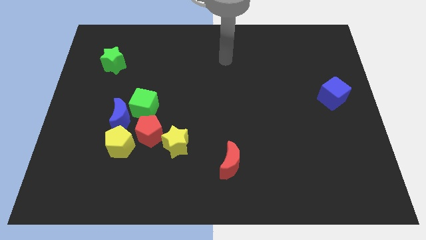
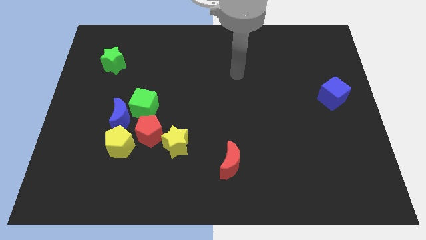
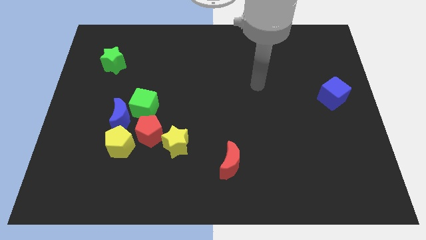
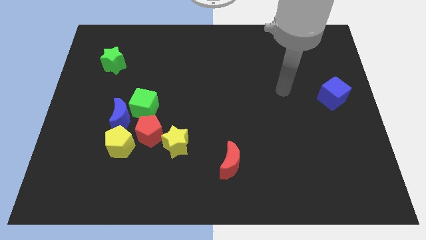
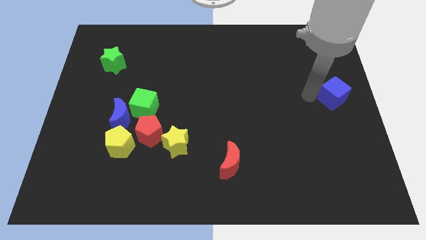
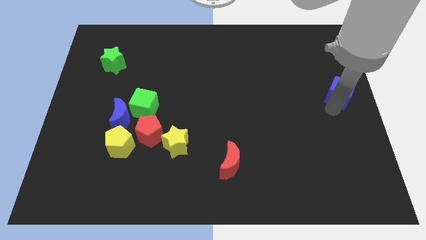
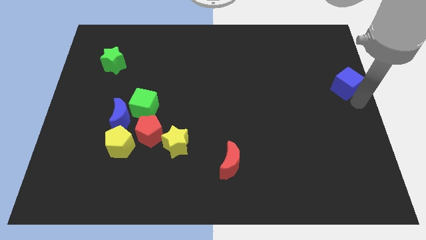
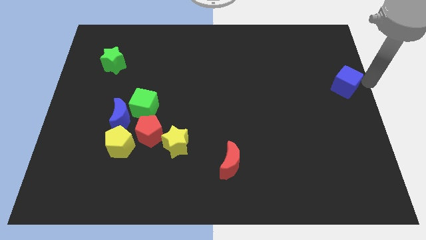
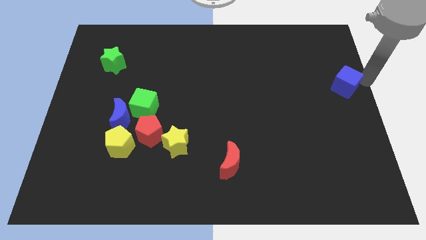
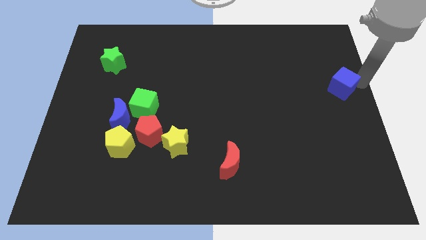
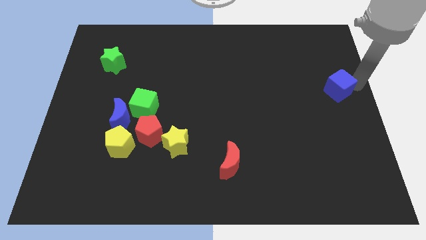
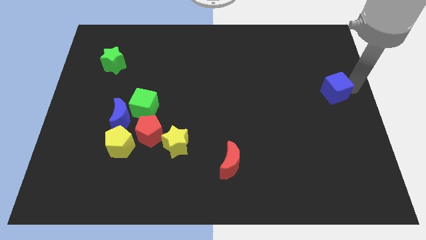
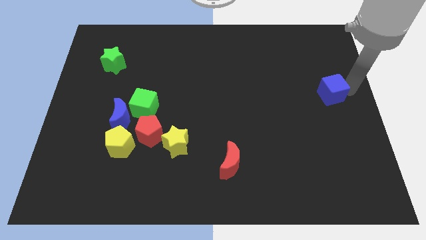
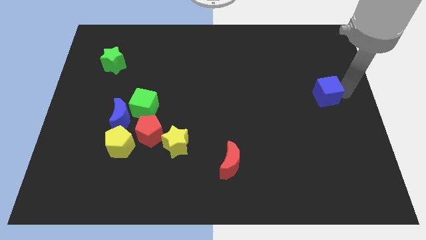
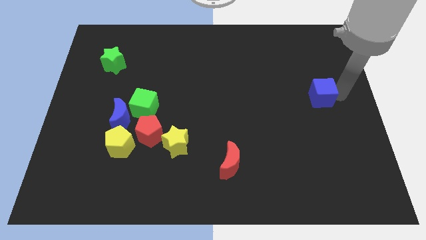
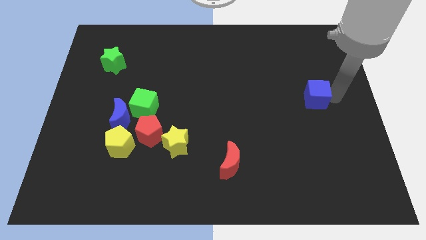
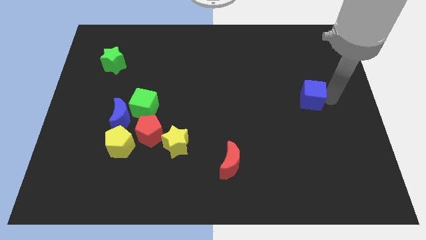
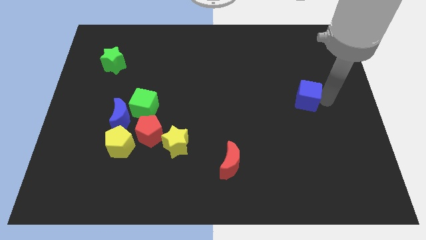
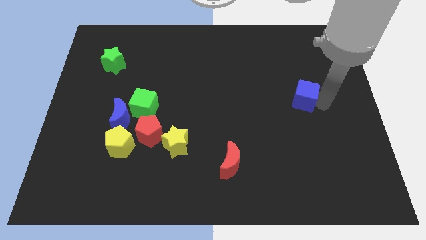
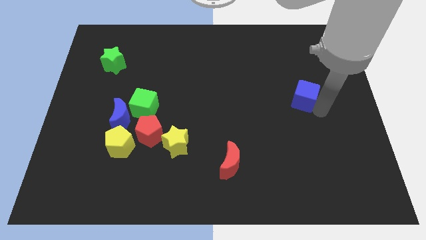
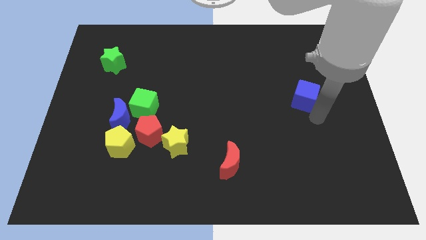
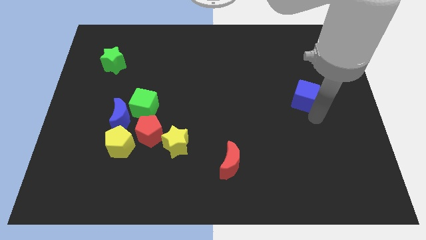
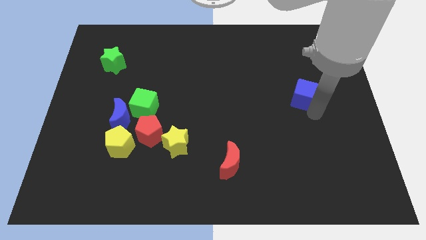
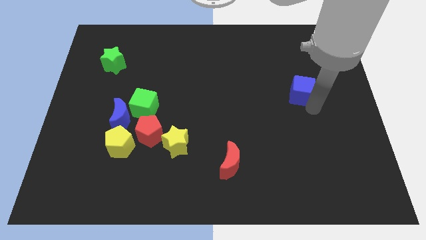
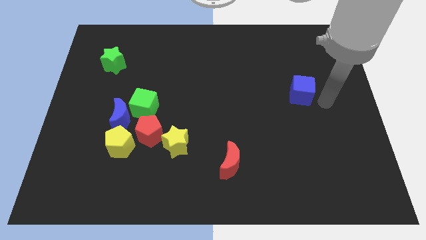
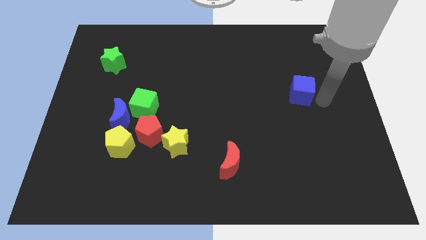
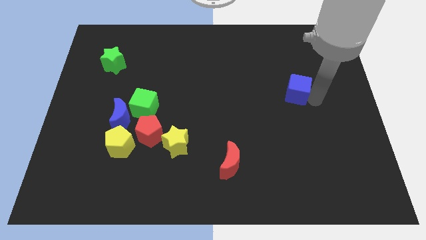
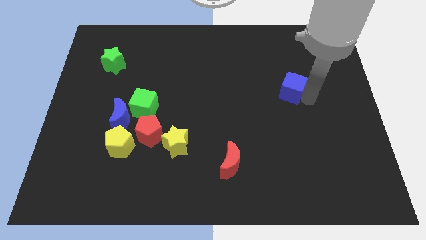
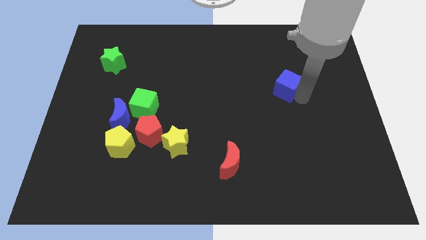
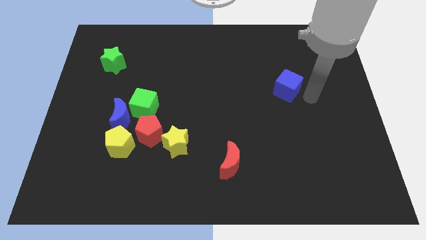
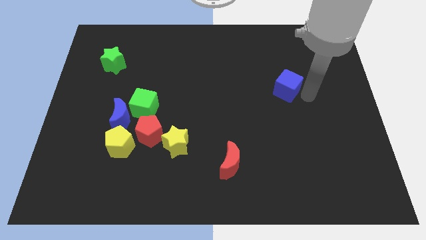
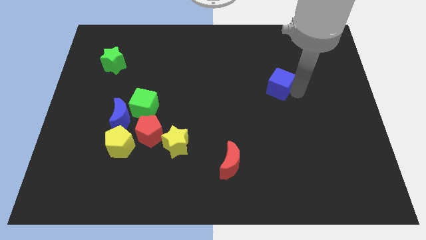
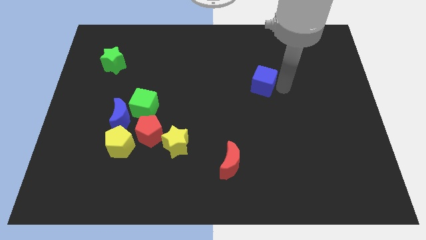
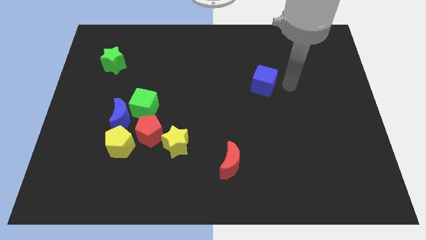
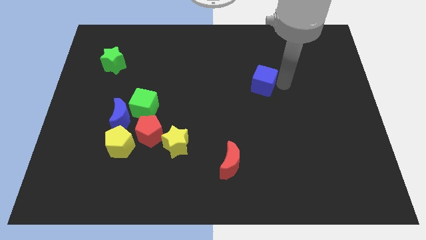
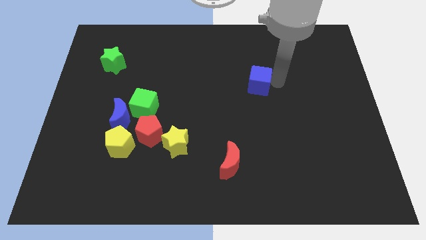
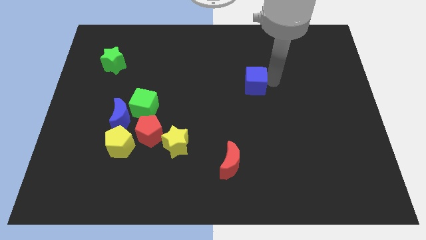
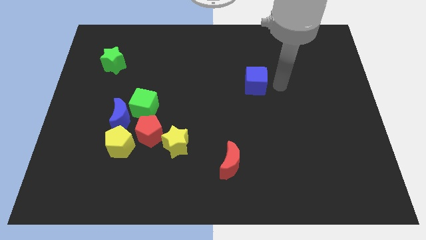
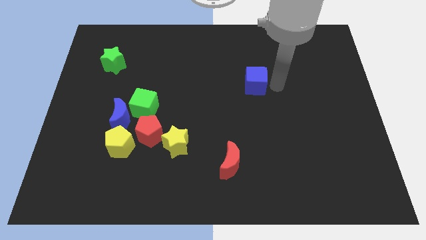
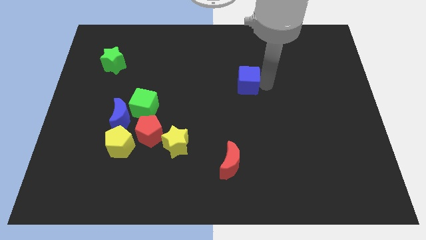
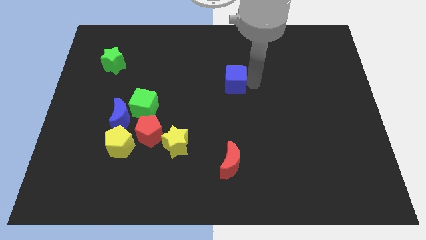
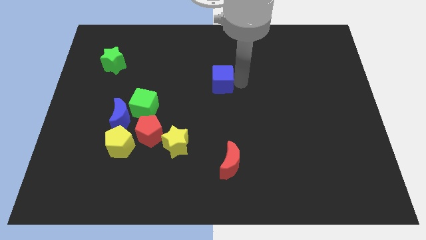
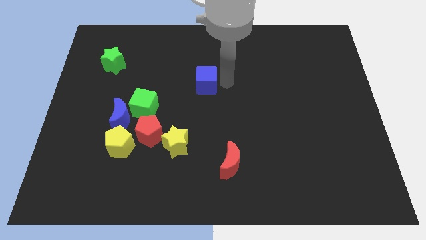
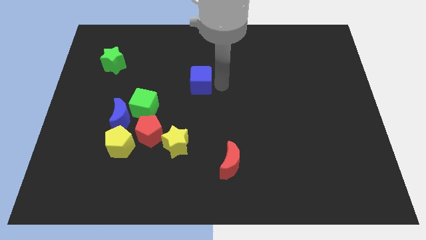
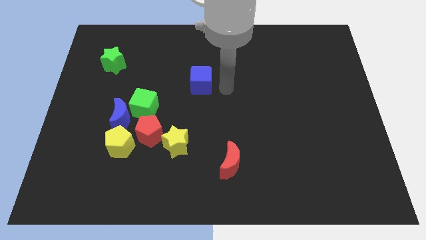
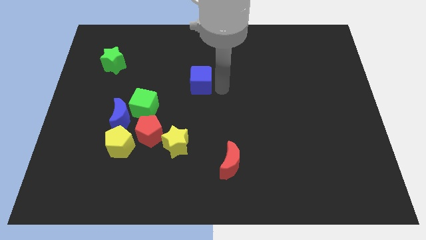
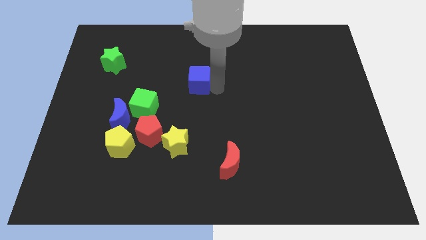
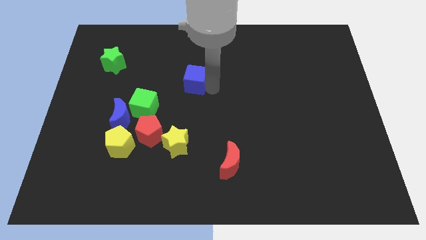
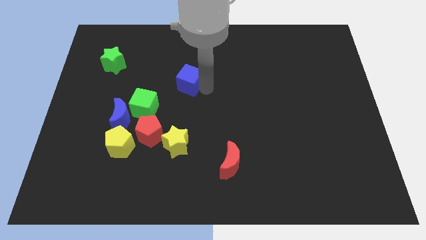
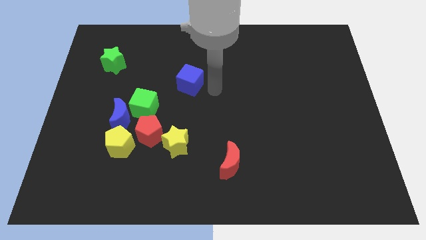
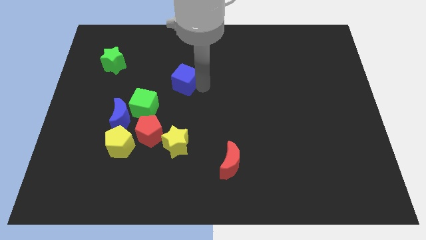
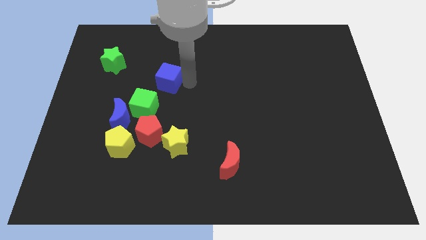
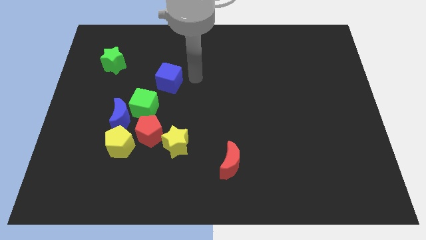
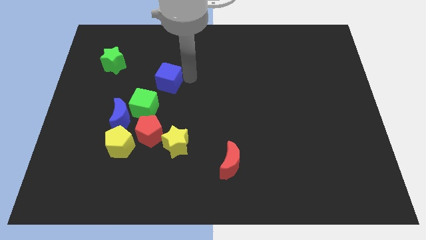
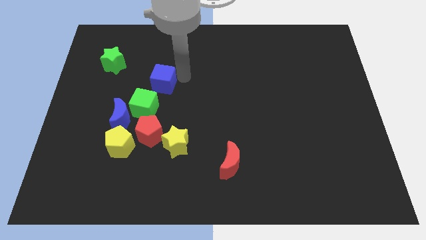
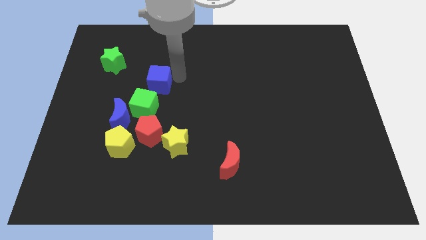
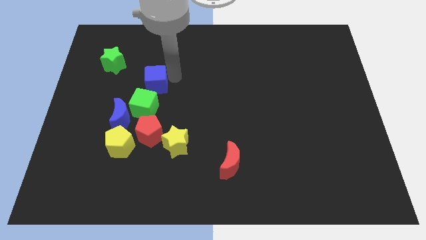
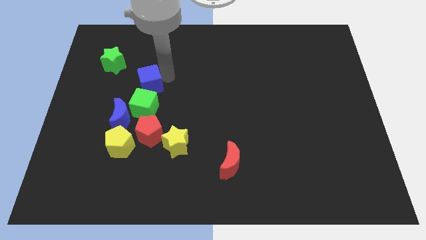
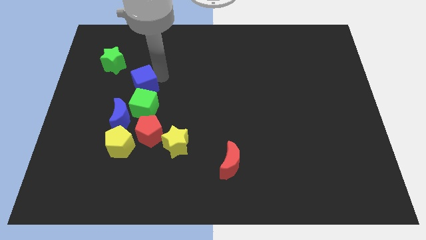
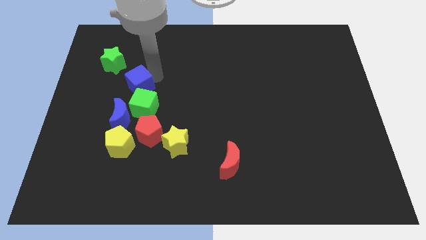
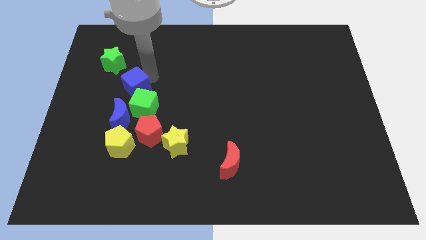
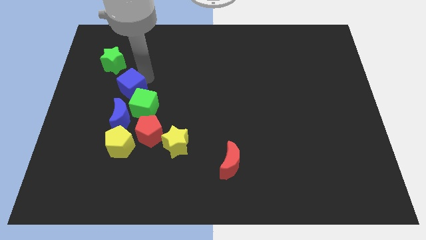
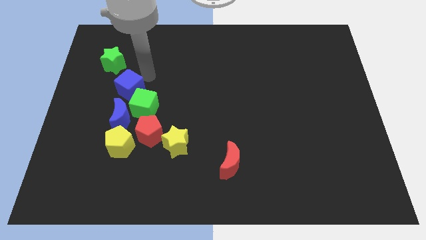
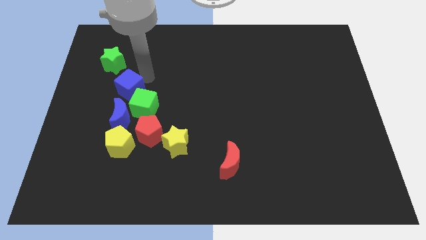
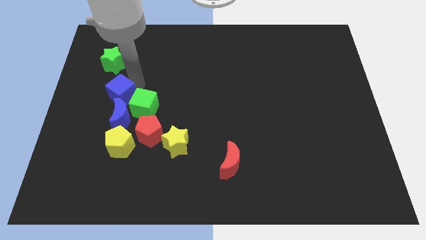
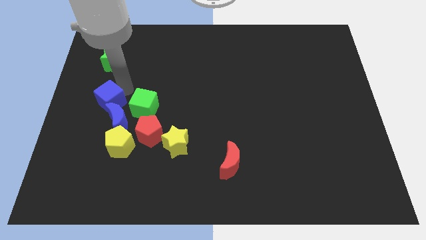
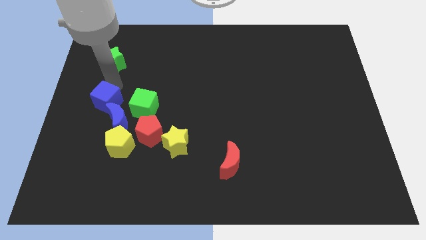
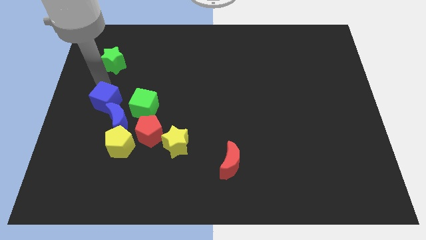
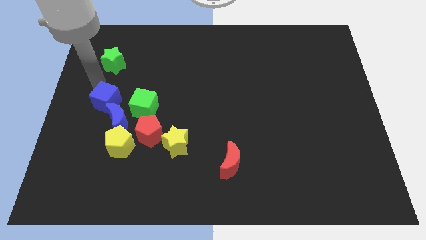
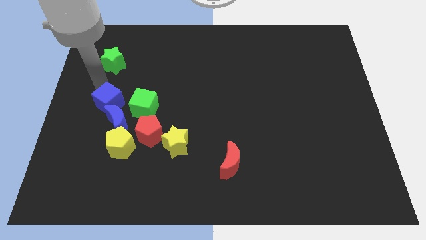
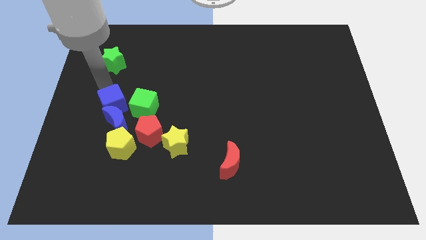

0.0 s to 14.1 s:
put the blue cube to the blue moon
